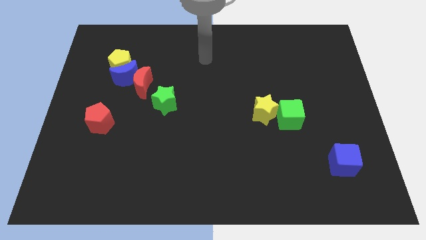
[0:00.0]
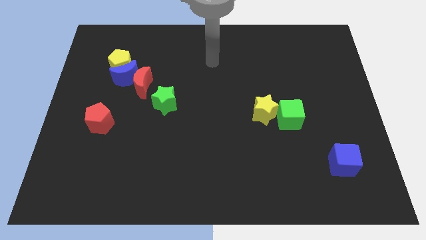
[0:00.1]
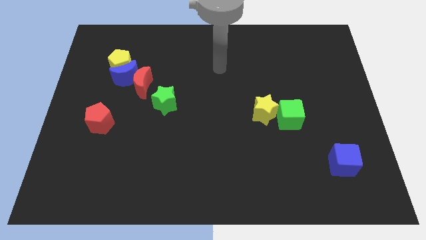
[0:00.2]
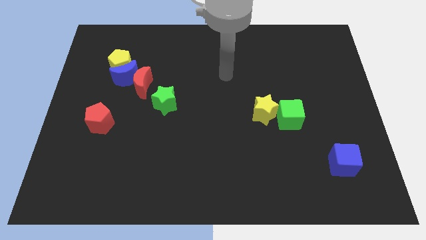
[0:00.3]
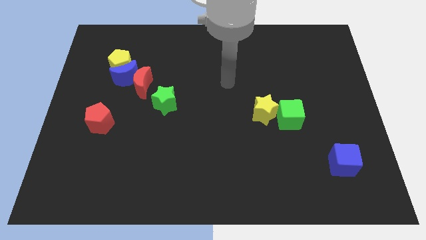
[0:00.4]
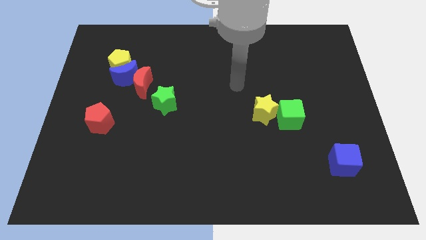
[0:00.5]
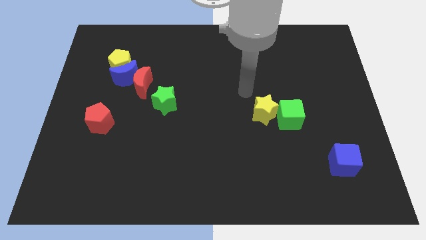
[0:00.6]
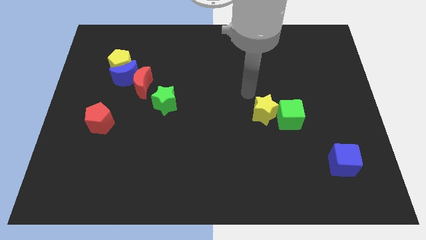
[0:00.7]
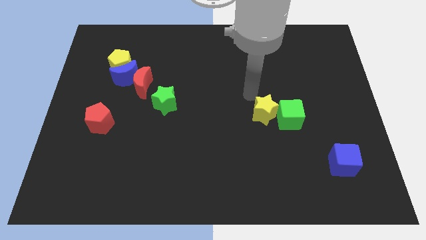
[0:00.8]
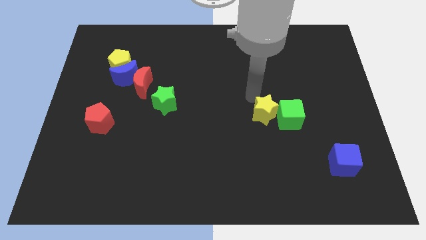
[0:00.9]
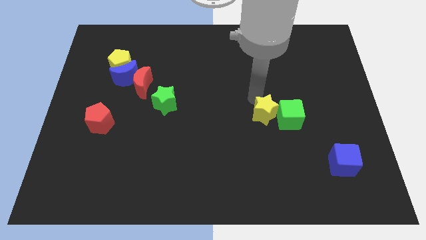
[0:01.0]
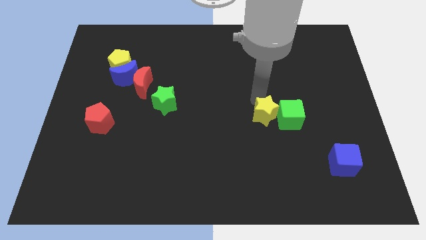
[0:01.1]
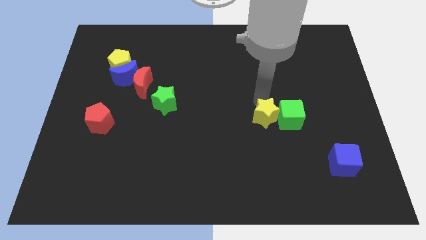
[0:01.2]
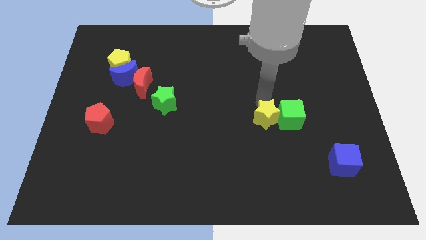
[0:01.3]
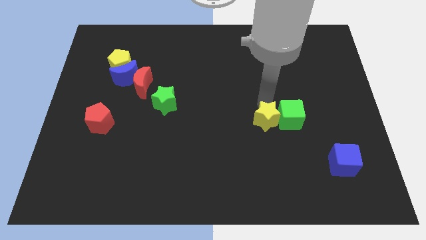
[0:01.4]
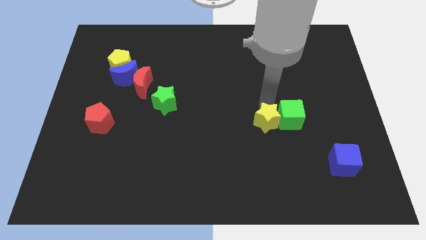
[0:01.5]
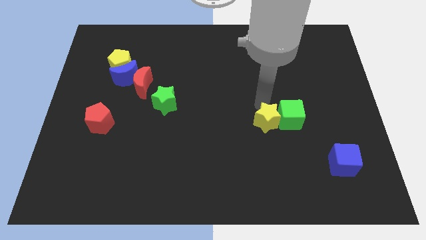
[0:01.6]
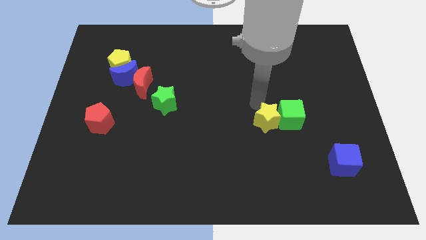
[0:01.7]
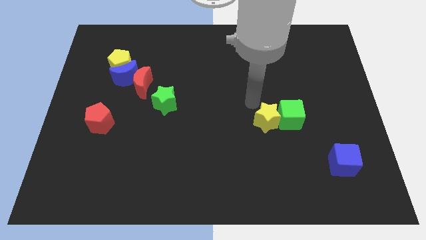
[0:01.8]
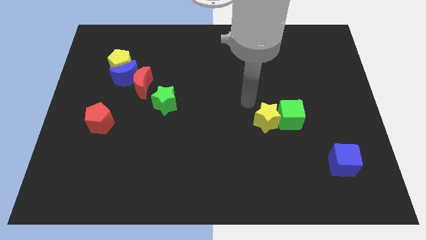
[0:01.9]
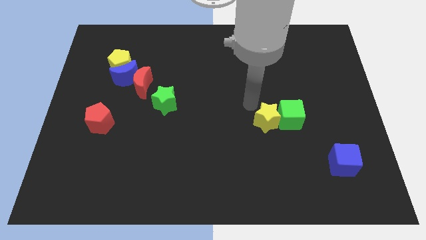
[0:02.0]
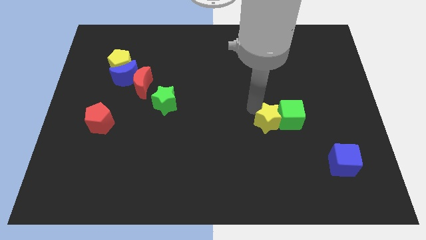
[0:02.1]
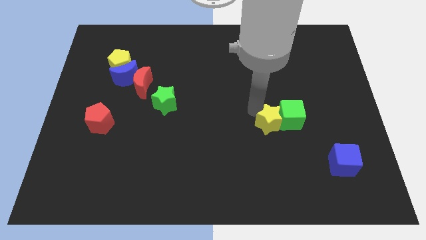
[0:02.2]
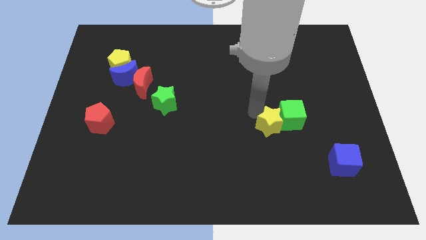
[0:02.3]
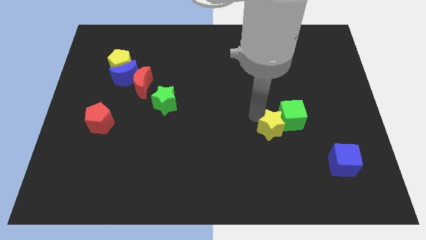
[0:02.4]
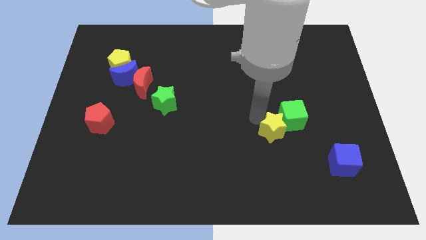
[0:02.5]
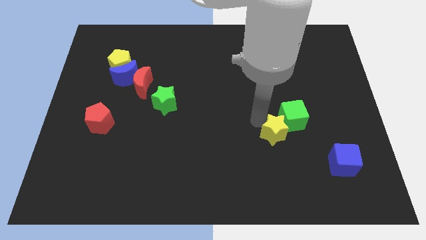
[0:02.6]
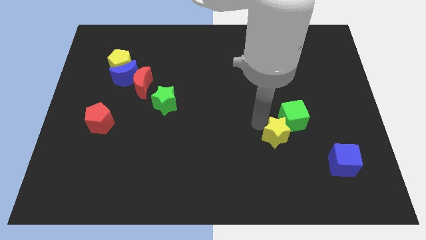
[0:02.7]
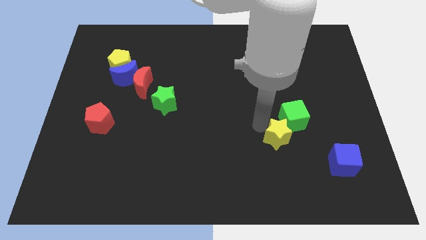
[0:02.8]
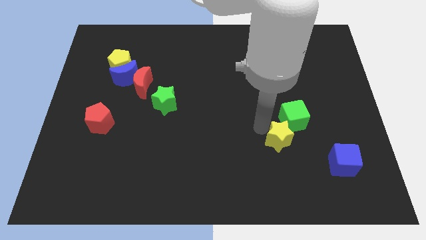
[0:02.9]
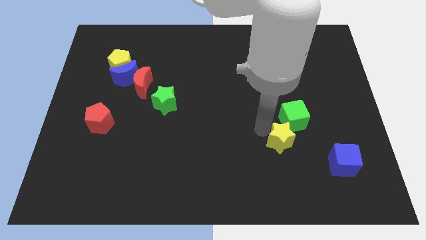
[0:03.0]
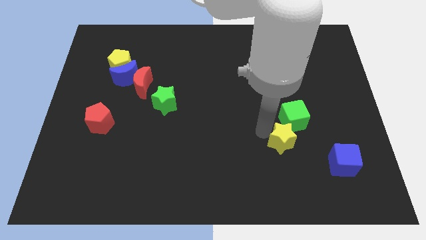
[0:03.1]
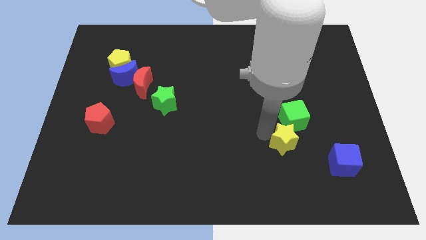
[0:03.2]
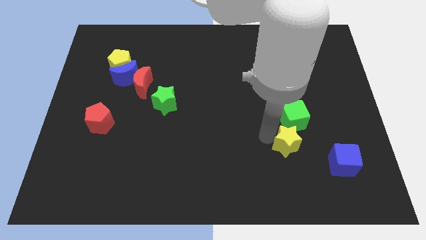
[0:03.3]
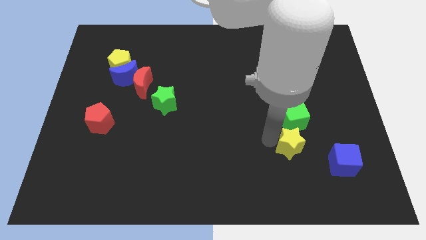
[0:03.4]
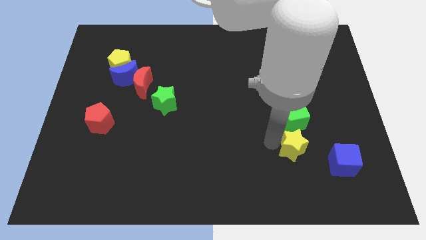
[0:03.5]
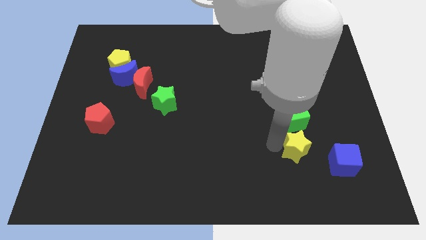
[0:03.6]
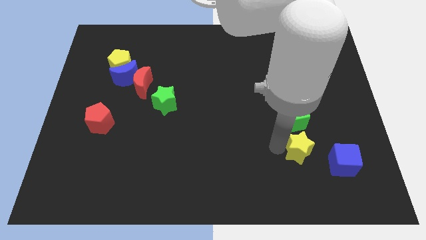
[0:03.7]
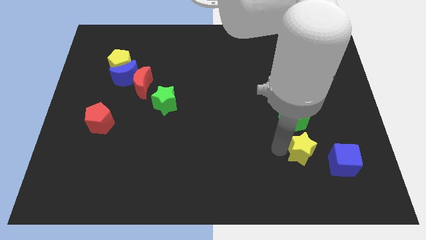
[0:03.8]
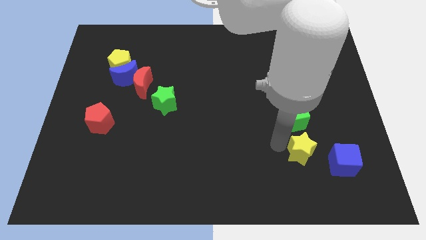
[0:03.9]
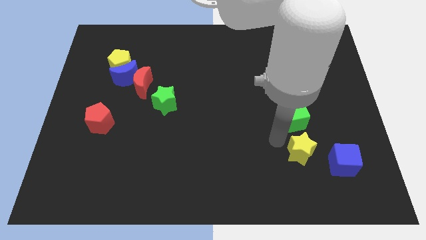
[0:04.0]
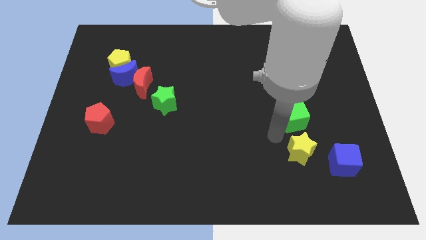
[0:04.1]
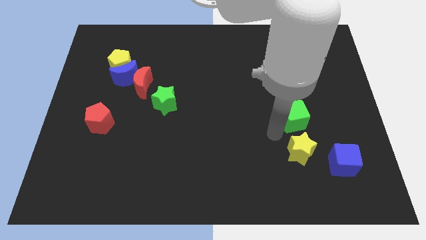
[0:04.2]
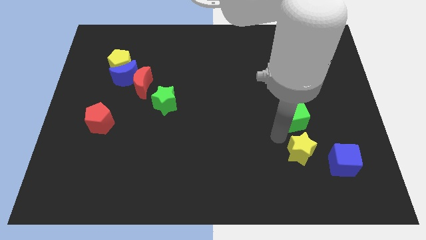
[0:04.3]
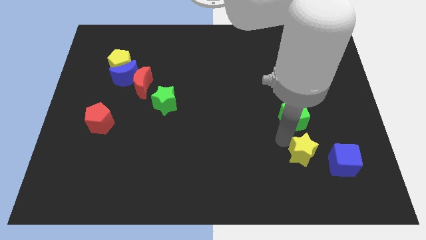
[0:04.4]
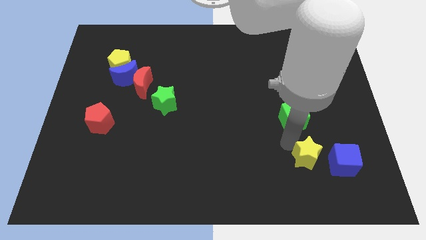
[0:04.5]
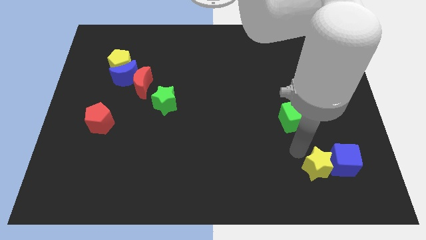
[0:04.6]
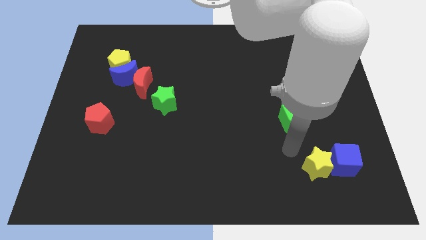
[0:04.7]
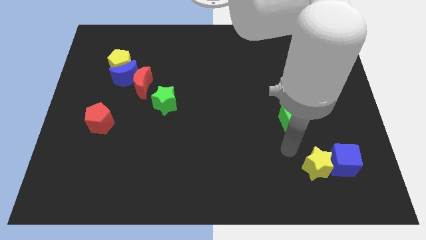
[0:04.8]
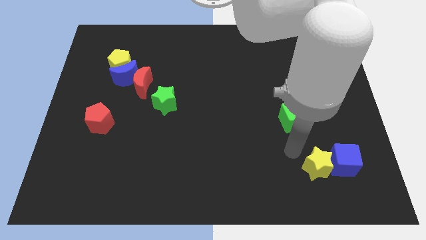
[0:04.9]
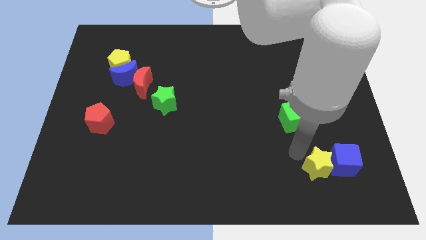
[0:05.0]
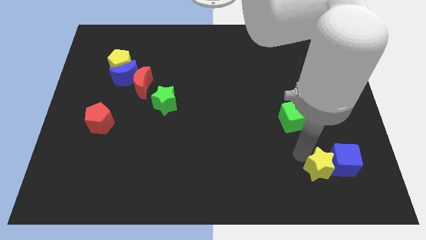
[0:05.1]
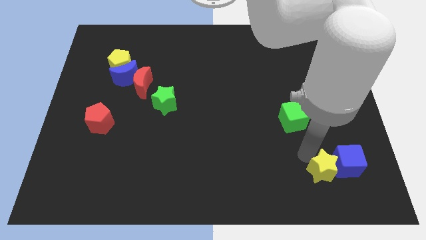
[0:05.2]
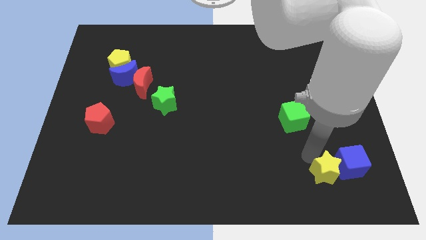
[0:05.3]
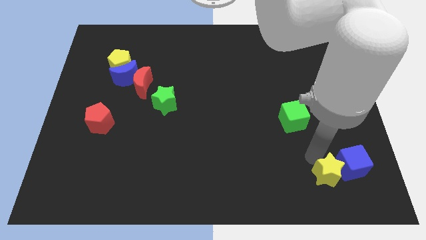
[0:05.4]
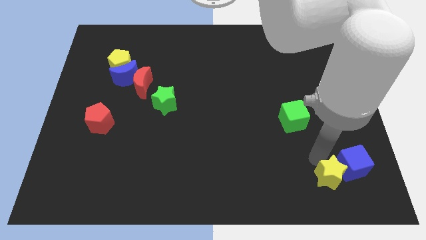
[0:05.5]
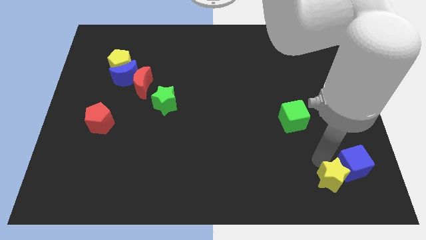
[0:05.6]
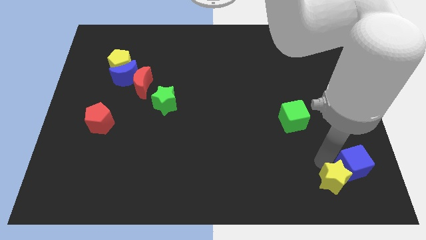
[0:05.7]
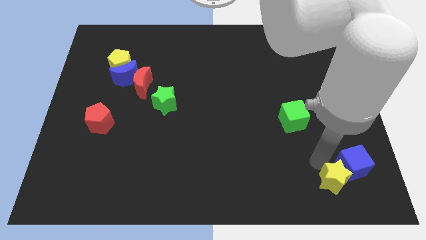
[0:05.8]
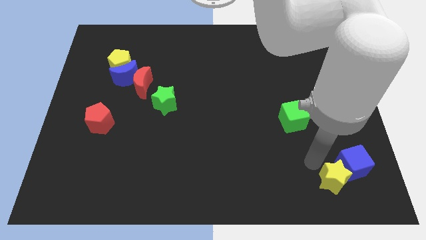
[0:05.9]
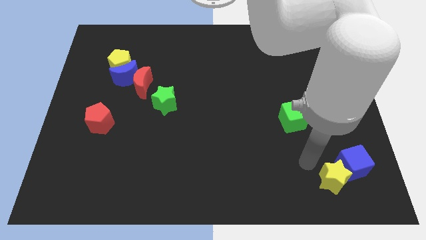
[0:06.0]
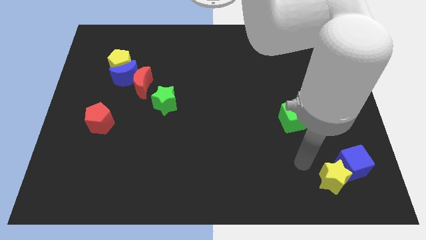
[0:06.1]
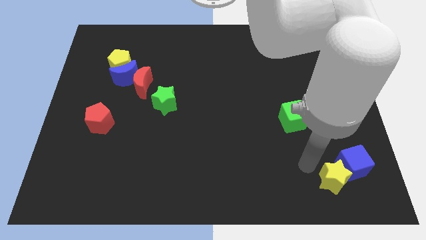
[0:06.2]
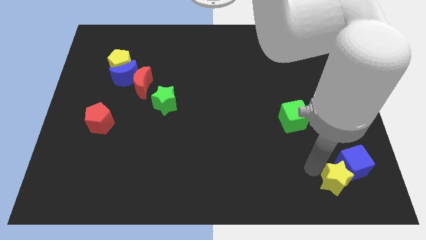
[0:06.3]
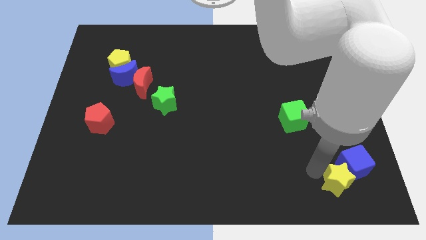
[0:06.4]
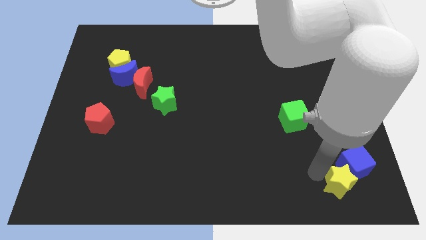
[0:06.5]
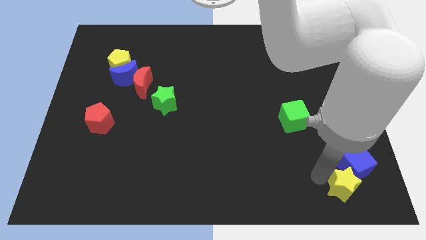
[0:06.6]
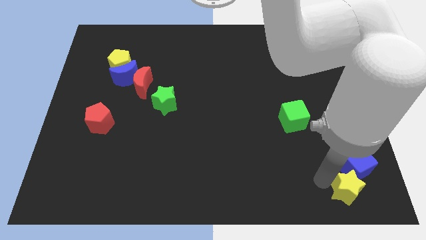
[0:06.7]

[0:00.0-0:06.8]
slide the yellow star to the bottom right corner
